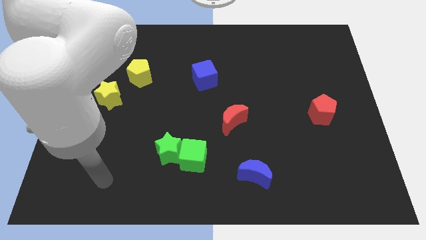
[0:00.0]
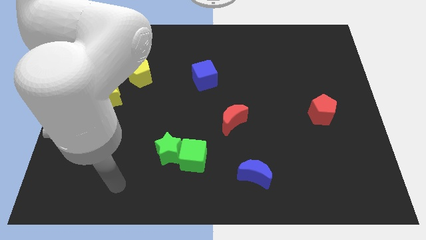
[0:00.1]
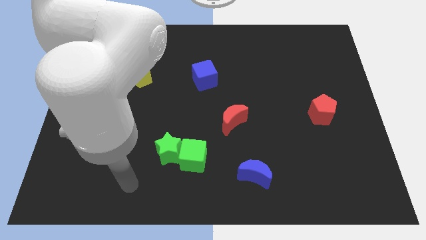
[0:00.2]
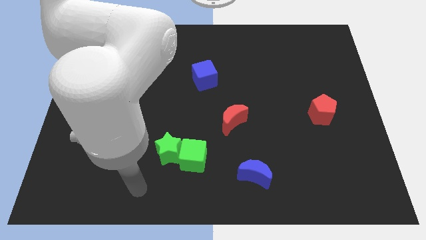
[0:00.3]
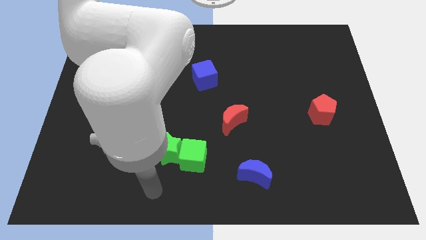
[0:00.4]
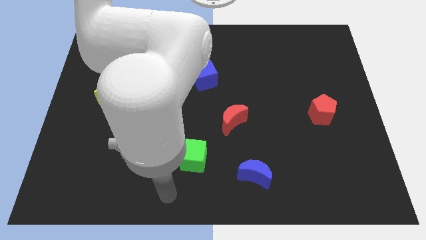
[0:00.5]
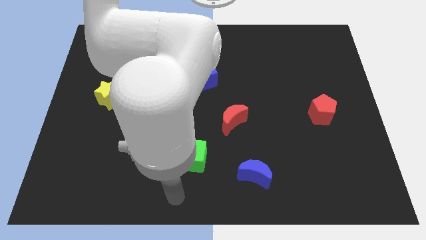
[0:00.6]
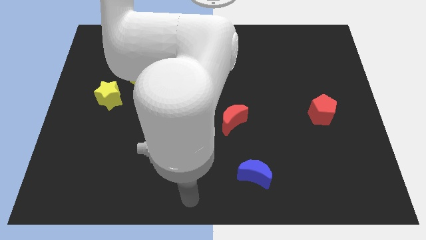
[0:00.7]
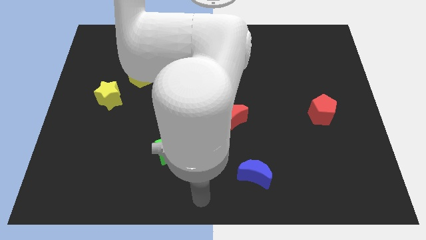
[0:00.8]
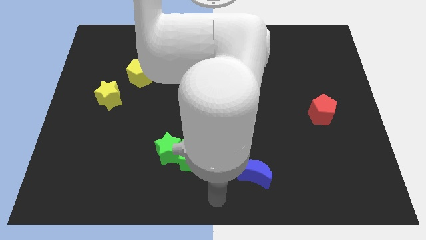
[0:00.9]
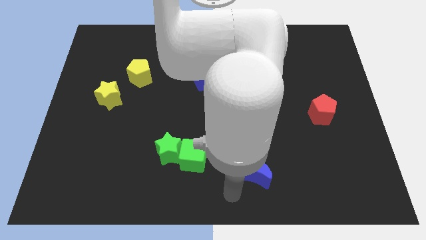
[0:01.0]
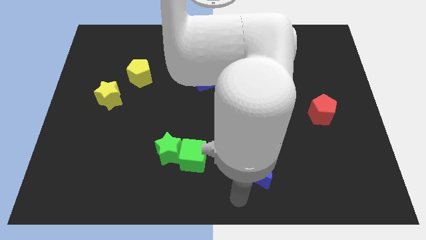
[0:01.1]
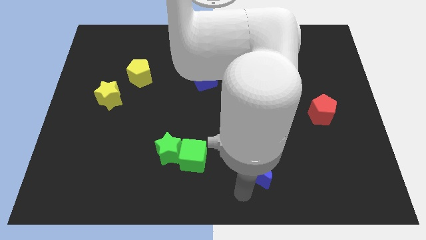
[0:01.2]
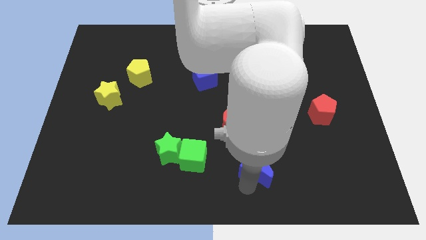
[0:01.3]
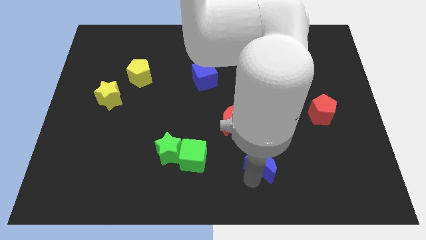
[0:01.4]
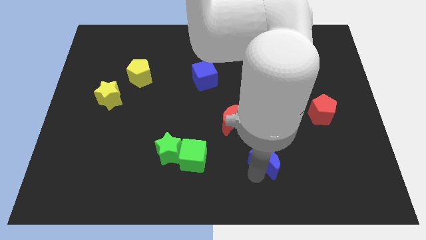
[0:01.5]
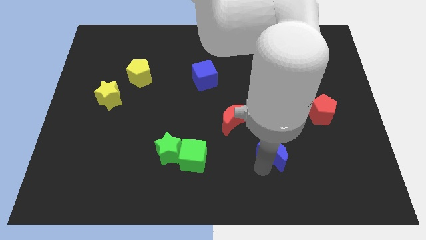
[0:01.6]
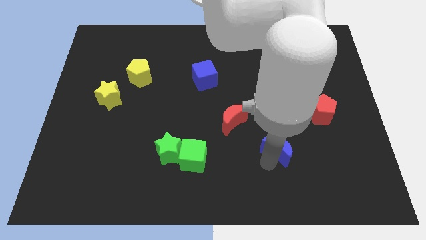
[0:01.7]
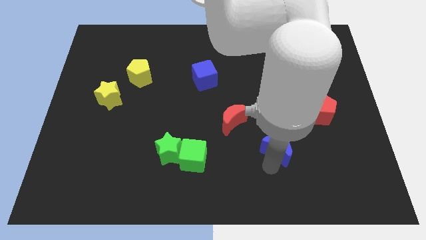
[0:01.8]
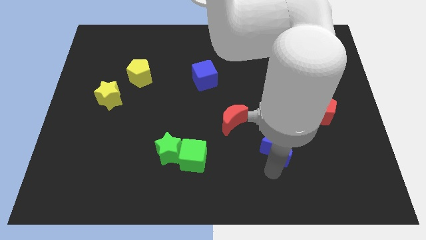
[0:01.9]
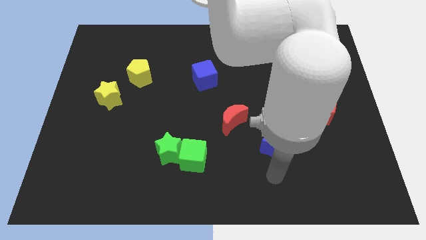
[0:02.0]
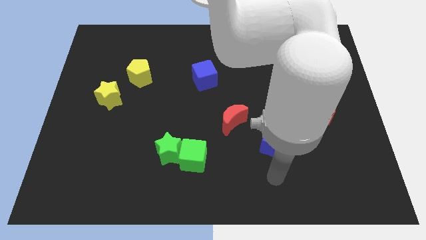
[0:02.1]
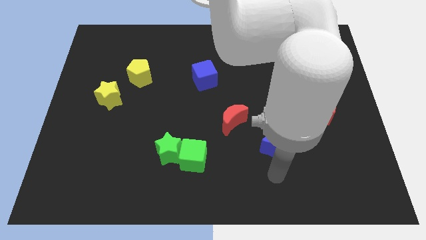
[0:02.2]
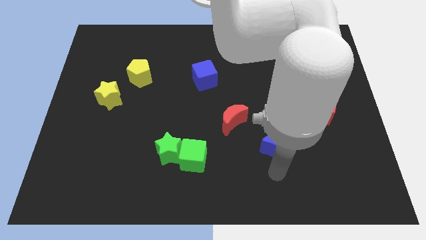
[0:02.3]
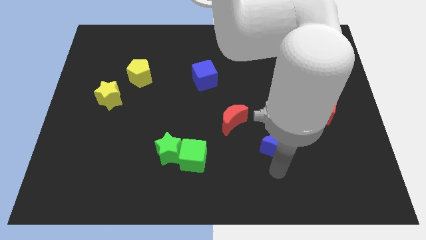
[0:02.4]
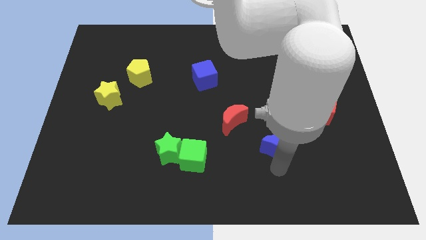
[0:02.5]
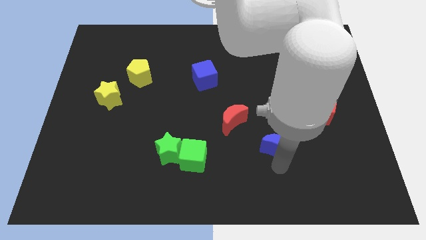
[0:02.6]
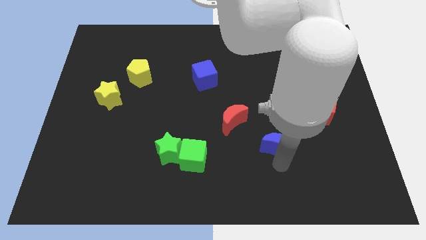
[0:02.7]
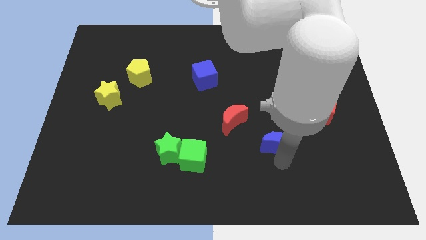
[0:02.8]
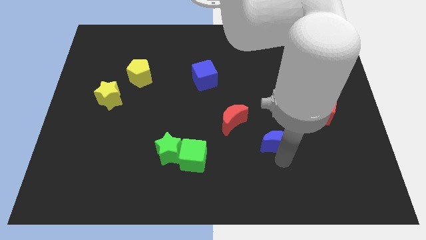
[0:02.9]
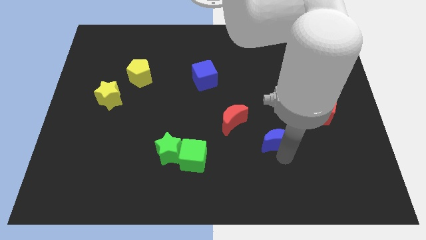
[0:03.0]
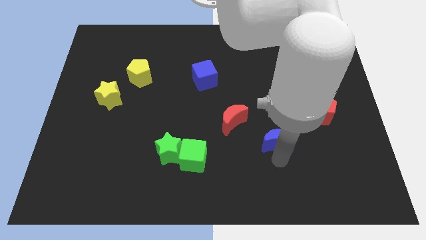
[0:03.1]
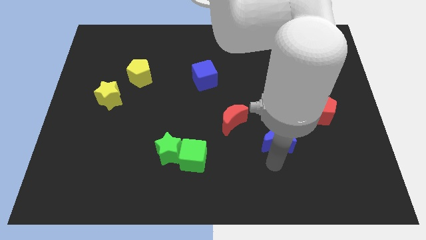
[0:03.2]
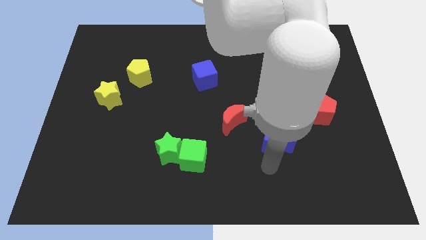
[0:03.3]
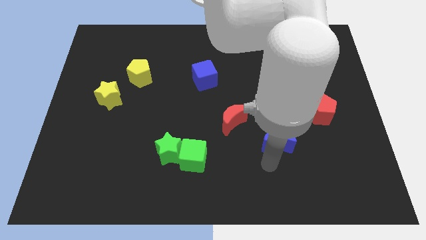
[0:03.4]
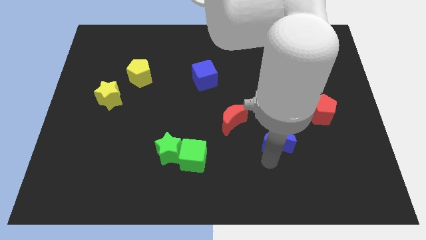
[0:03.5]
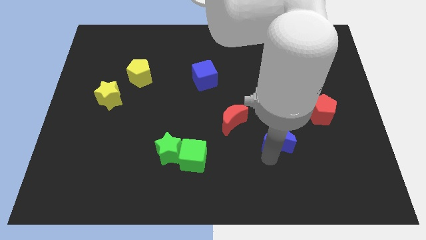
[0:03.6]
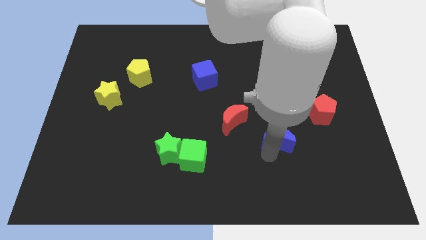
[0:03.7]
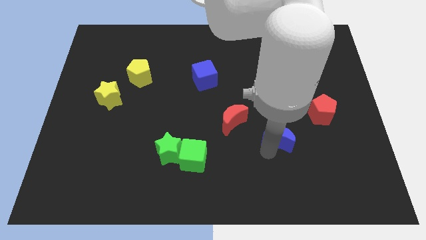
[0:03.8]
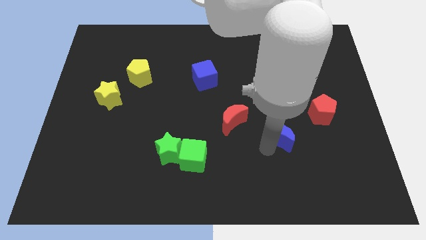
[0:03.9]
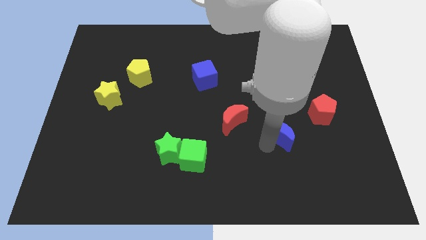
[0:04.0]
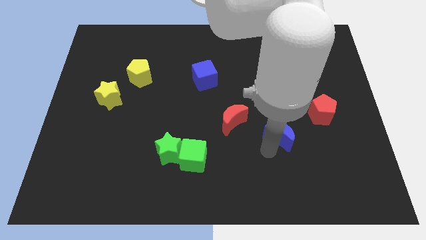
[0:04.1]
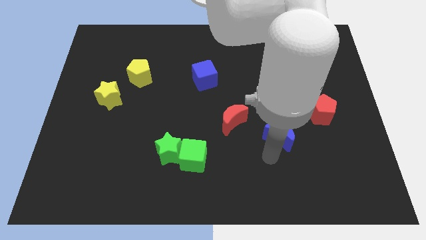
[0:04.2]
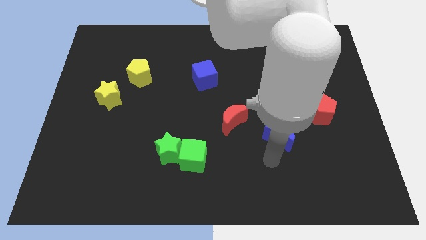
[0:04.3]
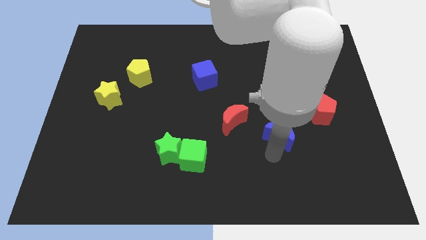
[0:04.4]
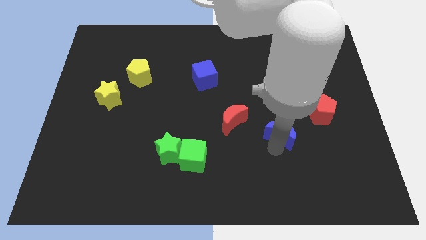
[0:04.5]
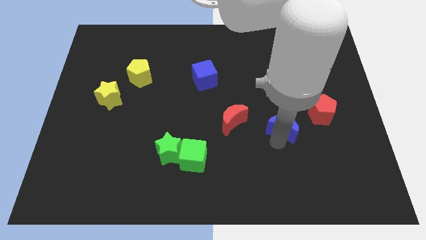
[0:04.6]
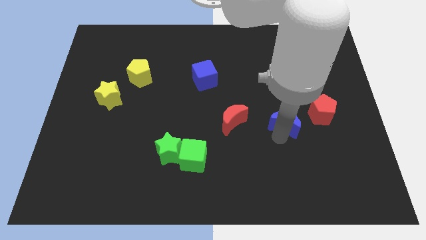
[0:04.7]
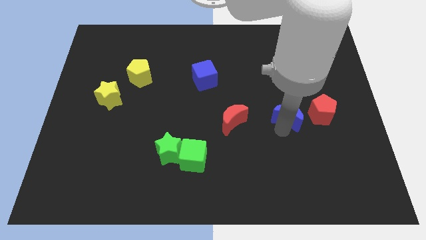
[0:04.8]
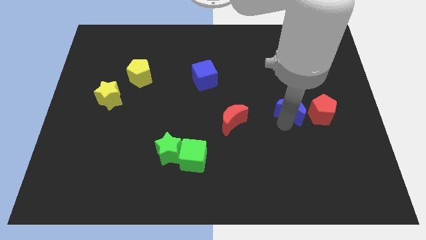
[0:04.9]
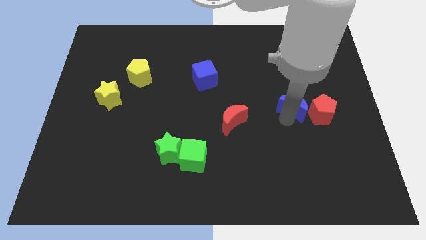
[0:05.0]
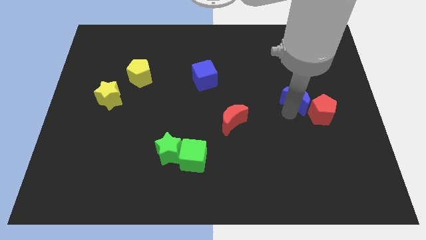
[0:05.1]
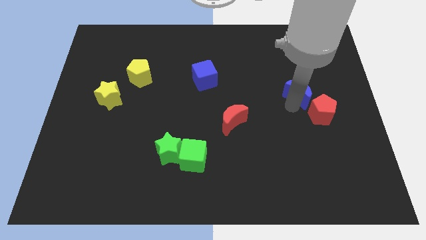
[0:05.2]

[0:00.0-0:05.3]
put the blue moon above the red pentagon

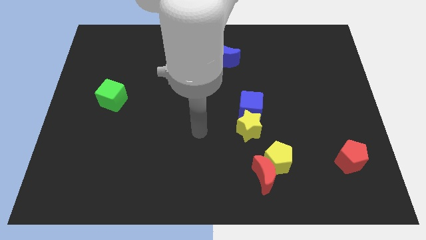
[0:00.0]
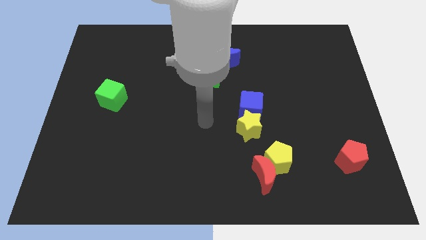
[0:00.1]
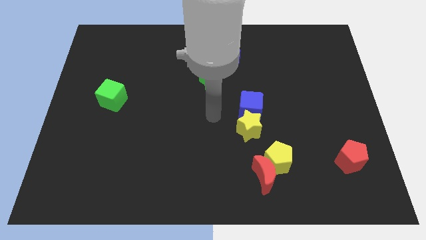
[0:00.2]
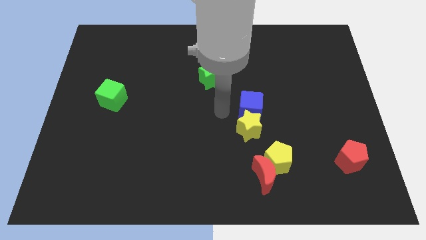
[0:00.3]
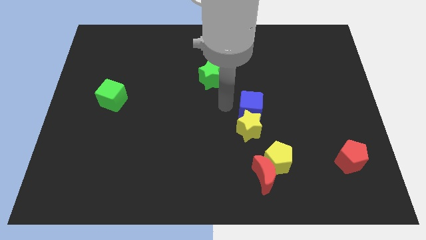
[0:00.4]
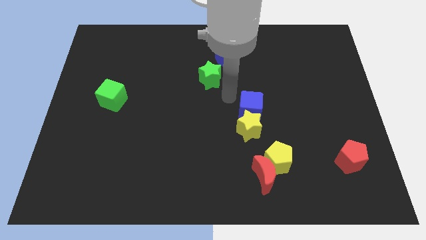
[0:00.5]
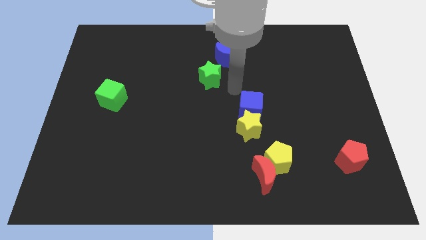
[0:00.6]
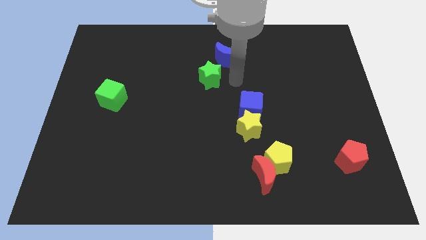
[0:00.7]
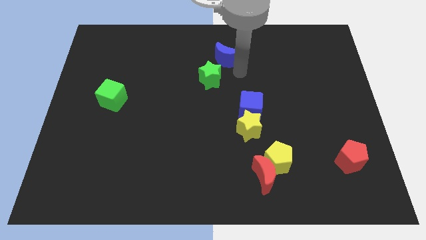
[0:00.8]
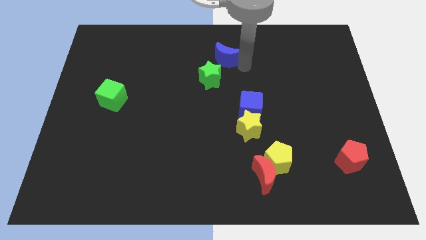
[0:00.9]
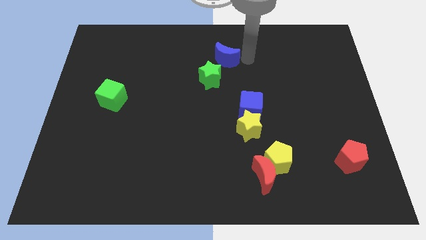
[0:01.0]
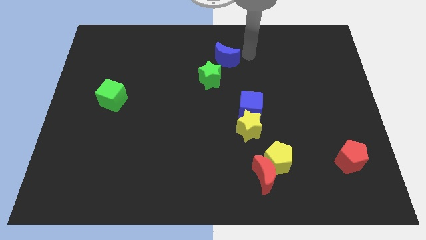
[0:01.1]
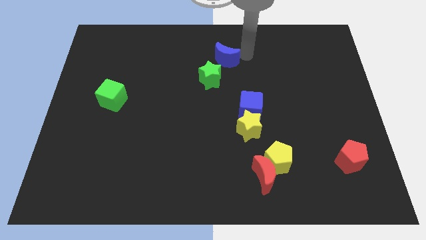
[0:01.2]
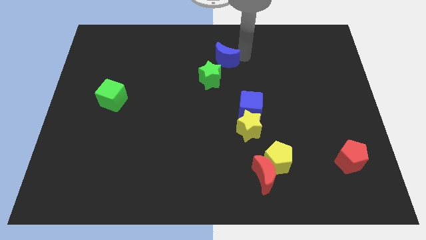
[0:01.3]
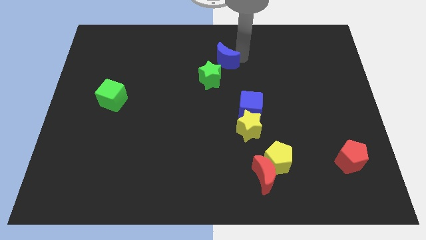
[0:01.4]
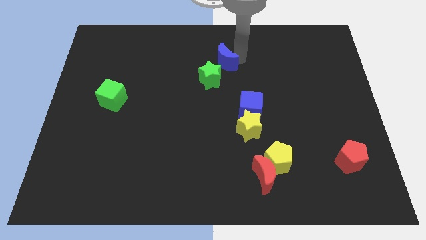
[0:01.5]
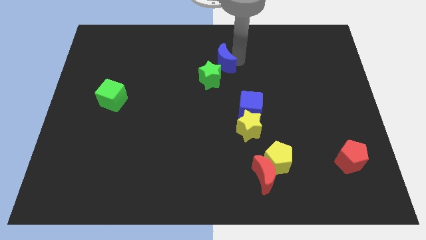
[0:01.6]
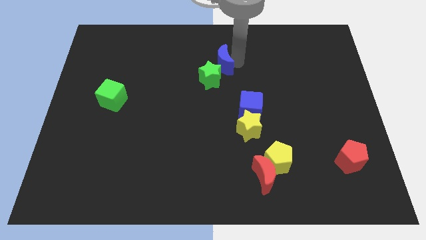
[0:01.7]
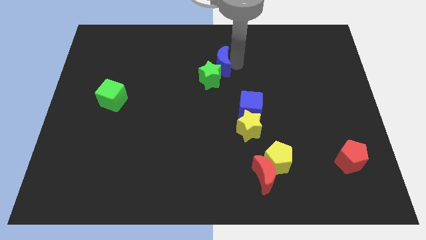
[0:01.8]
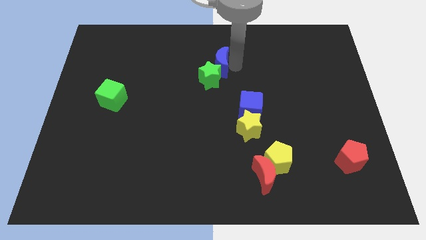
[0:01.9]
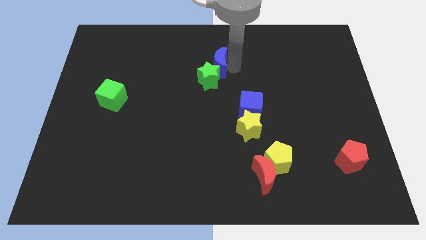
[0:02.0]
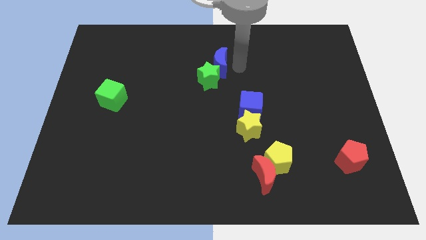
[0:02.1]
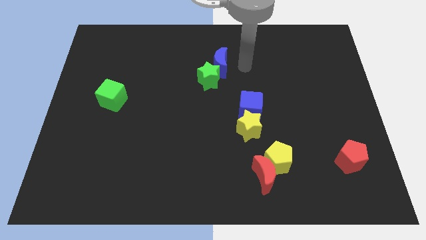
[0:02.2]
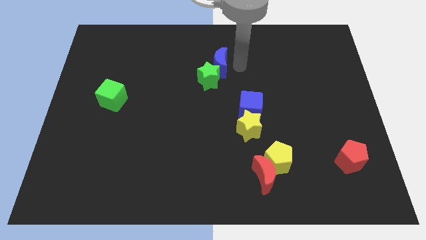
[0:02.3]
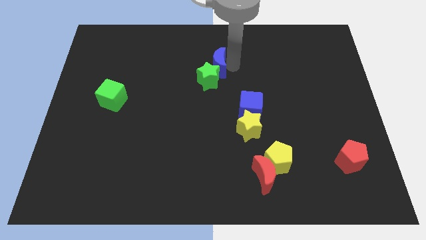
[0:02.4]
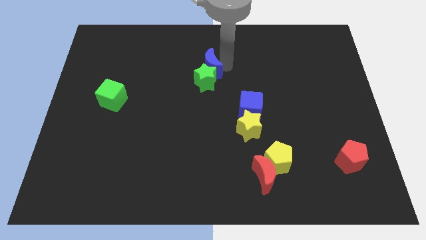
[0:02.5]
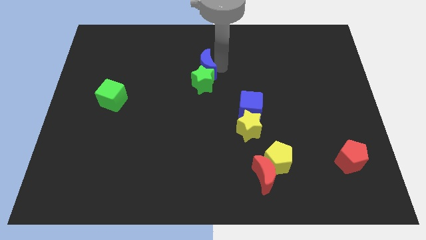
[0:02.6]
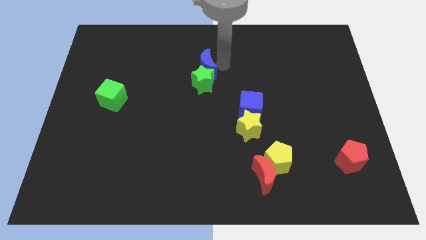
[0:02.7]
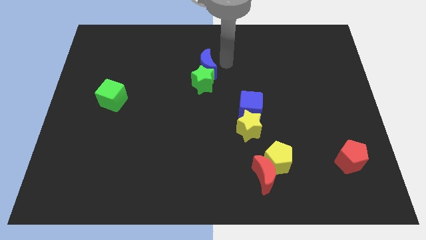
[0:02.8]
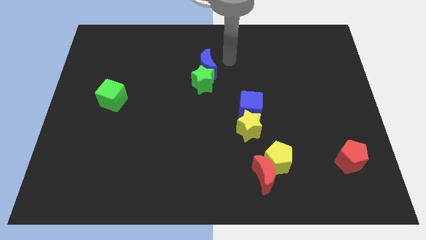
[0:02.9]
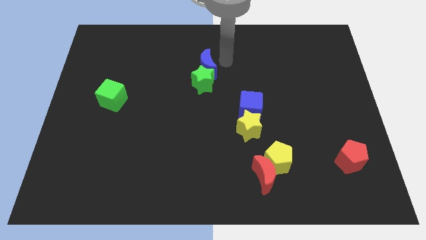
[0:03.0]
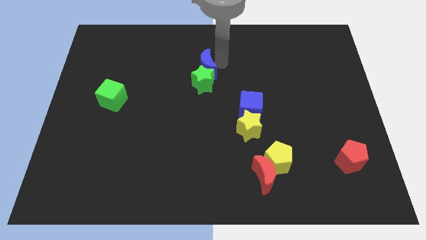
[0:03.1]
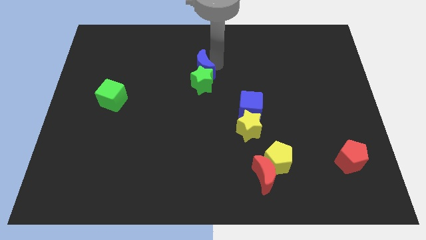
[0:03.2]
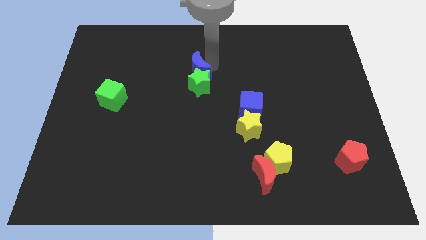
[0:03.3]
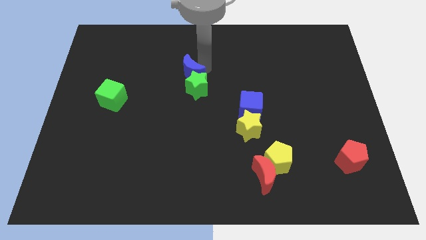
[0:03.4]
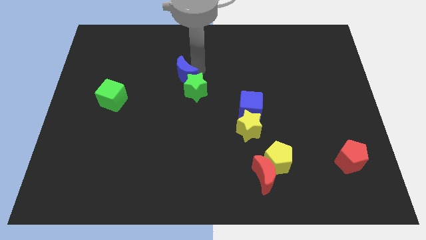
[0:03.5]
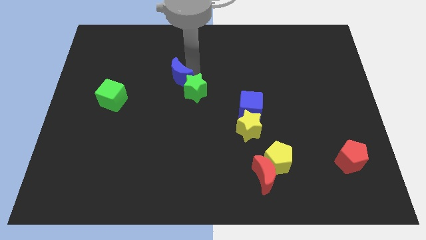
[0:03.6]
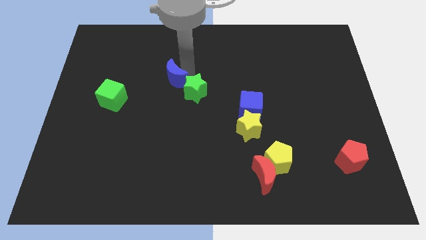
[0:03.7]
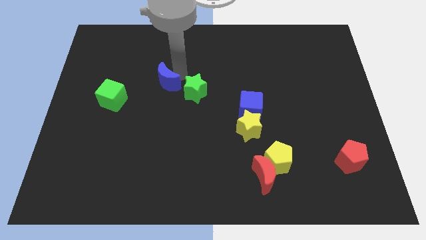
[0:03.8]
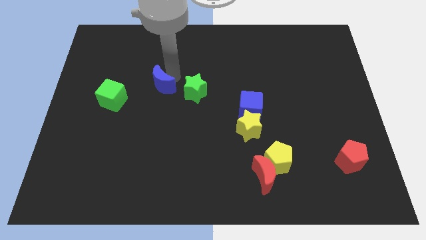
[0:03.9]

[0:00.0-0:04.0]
move the blue moon to the right side of the green cube
